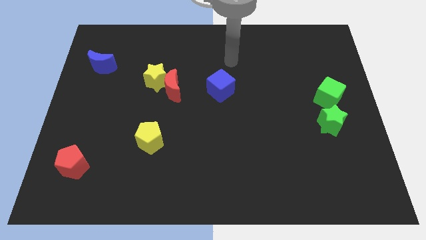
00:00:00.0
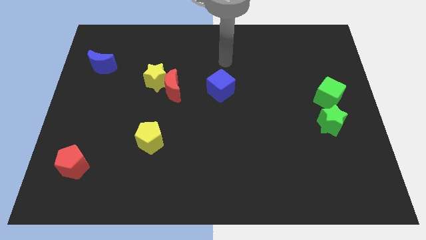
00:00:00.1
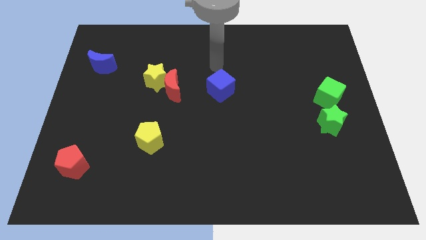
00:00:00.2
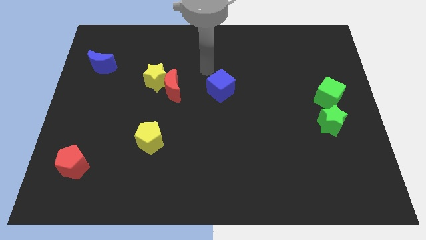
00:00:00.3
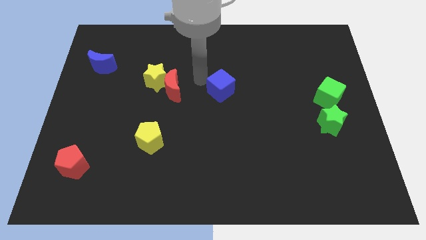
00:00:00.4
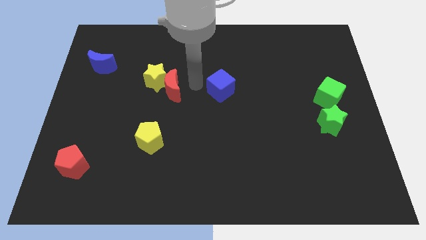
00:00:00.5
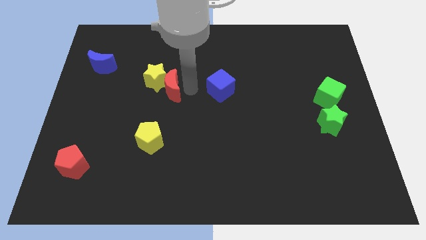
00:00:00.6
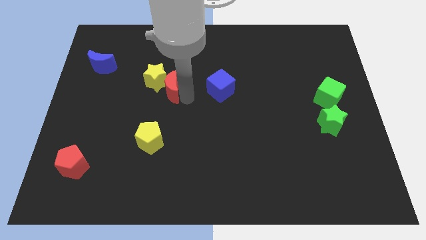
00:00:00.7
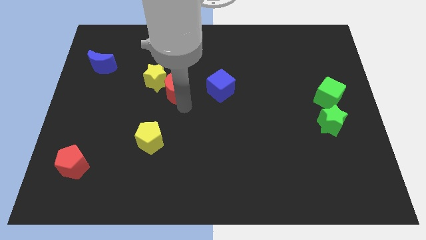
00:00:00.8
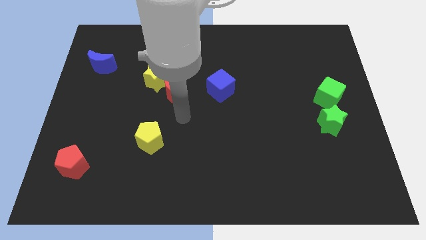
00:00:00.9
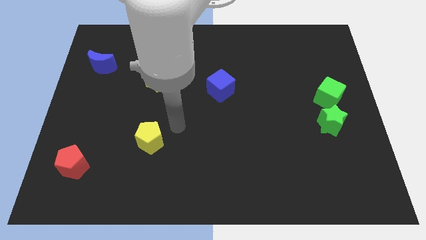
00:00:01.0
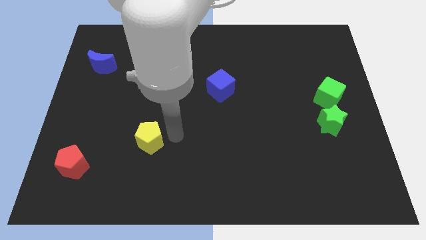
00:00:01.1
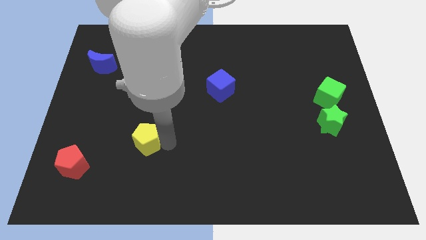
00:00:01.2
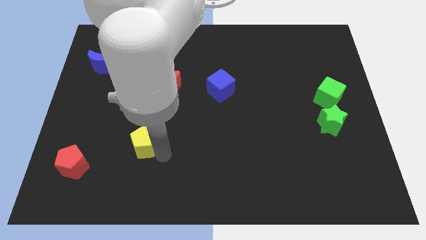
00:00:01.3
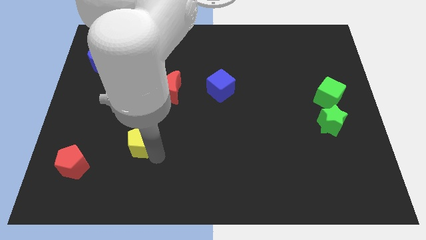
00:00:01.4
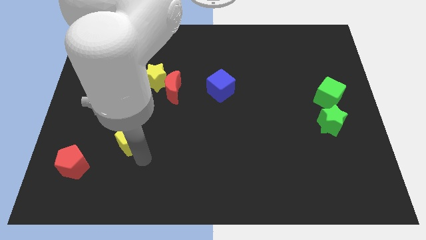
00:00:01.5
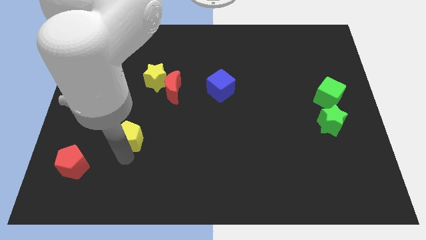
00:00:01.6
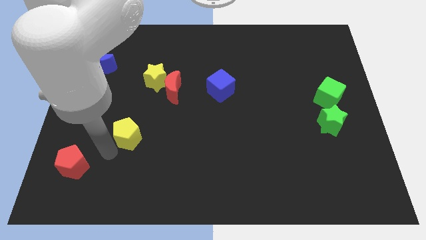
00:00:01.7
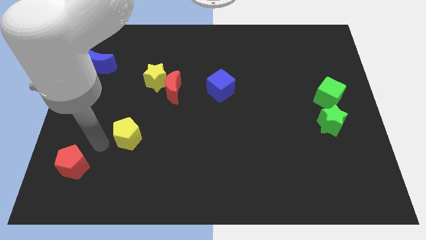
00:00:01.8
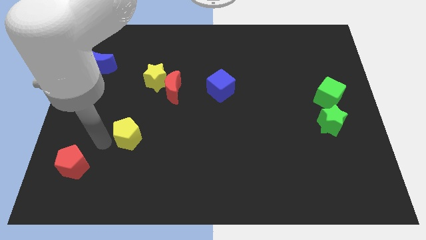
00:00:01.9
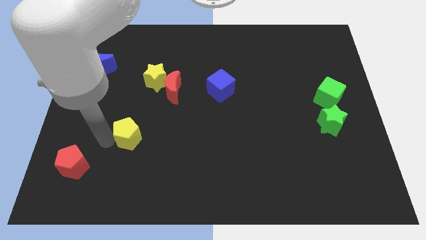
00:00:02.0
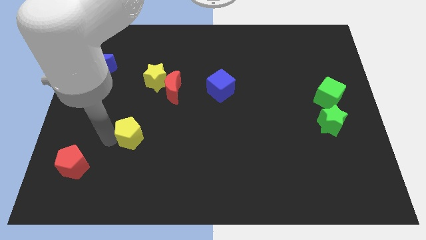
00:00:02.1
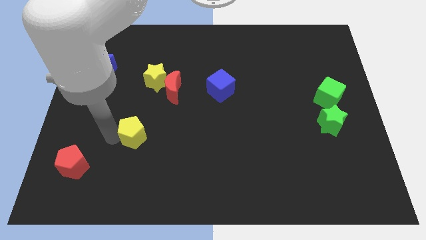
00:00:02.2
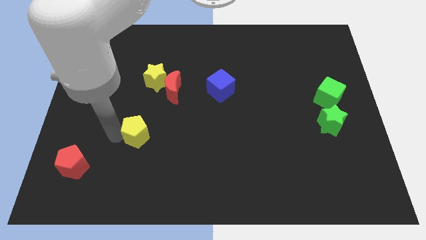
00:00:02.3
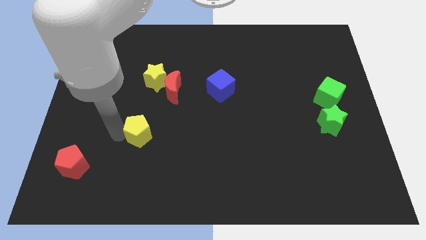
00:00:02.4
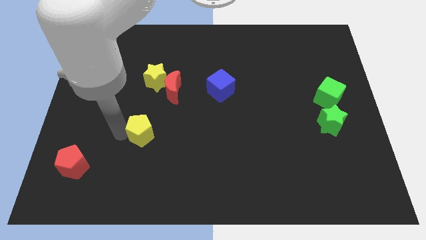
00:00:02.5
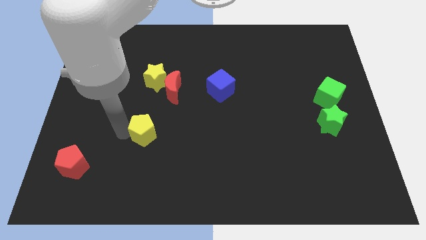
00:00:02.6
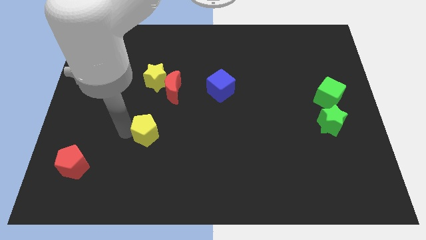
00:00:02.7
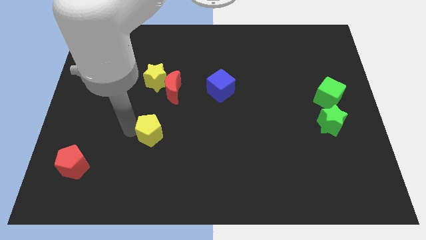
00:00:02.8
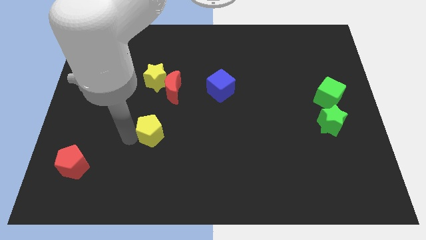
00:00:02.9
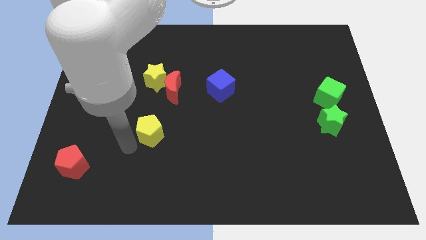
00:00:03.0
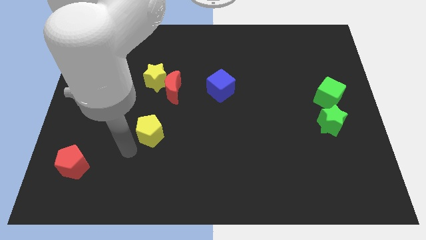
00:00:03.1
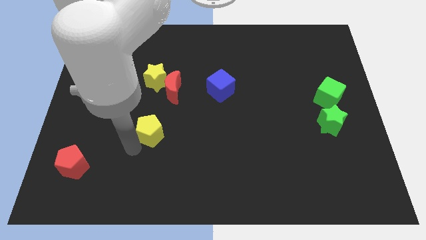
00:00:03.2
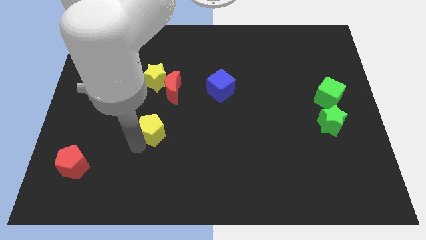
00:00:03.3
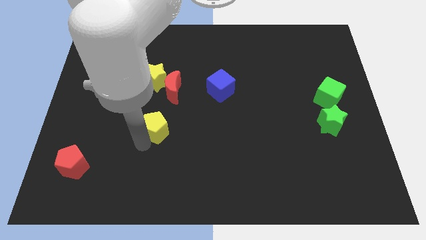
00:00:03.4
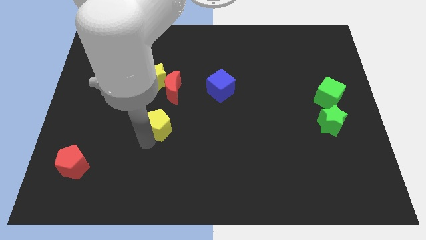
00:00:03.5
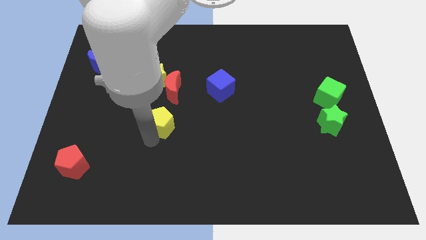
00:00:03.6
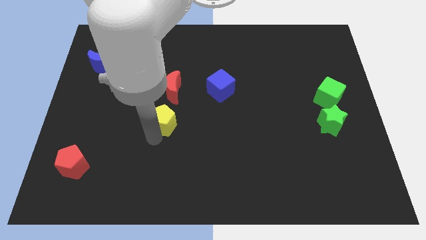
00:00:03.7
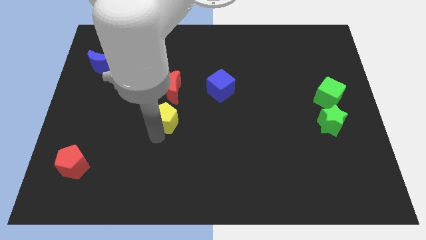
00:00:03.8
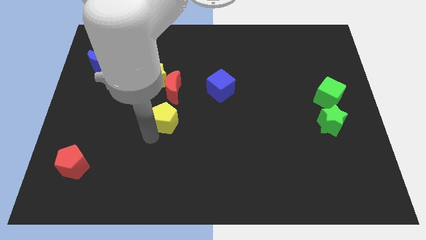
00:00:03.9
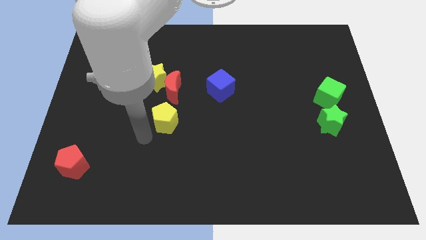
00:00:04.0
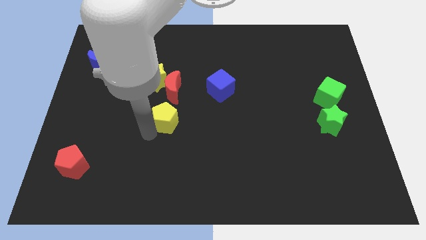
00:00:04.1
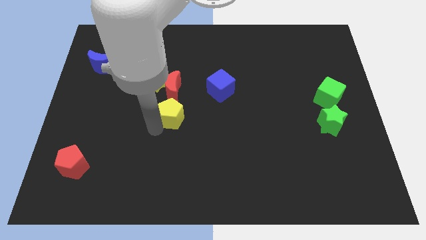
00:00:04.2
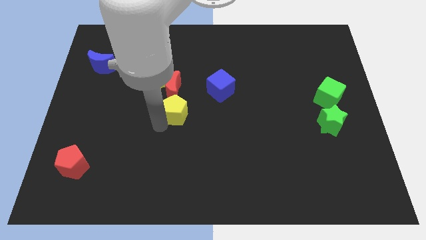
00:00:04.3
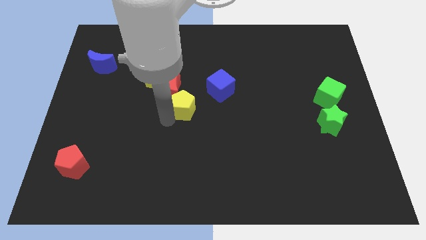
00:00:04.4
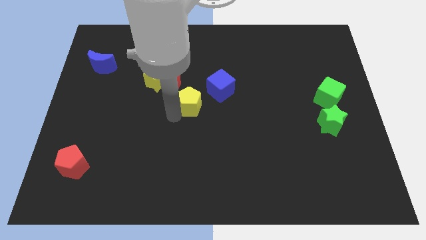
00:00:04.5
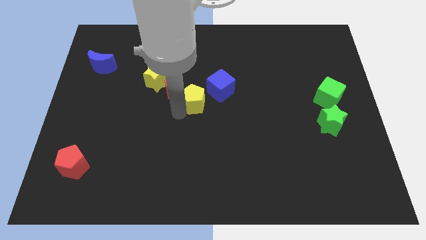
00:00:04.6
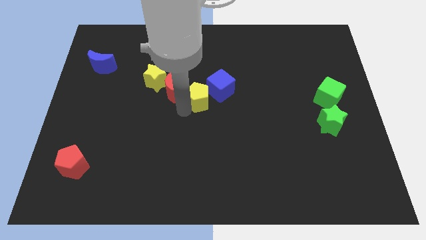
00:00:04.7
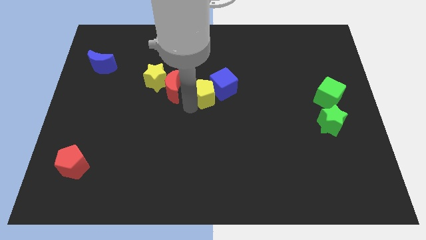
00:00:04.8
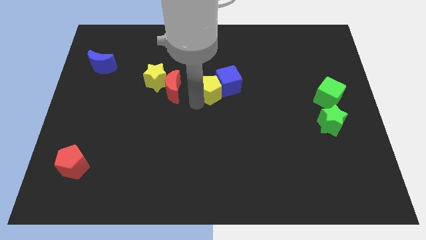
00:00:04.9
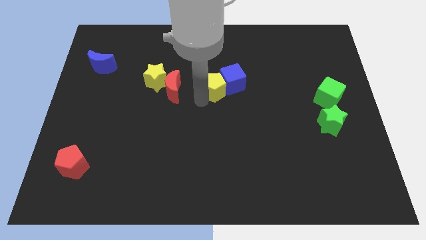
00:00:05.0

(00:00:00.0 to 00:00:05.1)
slide the yellow pentagon upwards and right

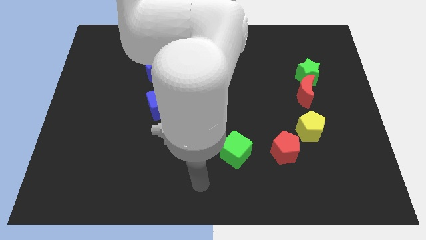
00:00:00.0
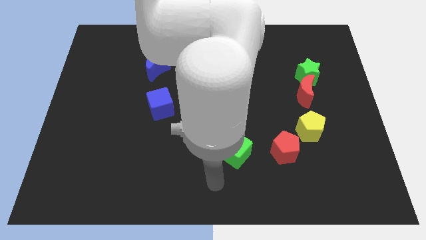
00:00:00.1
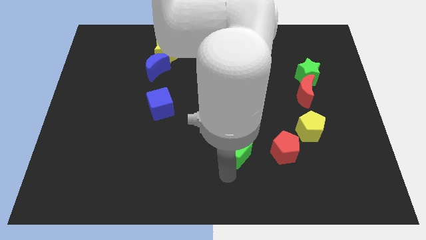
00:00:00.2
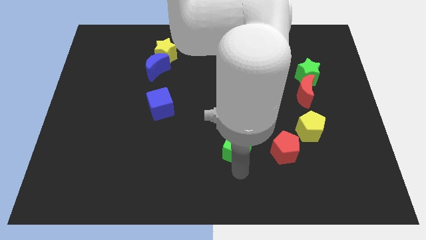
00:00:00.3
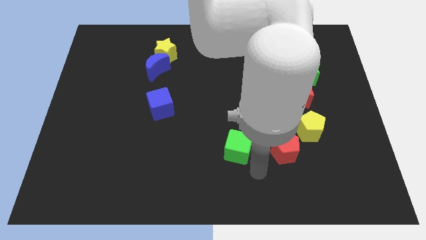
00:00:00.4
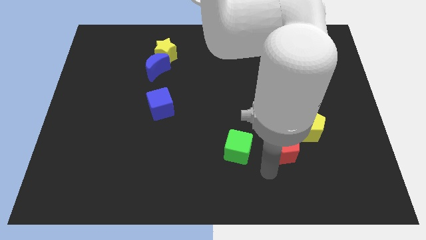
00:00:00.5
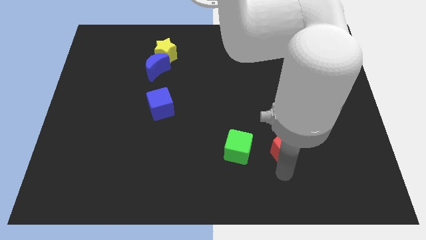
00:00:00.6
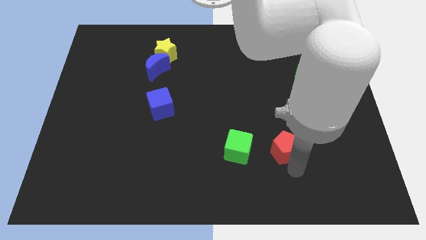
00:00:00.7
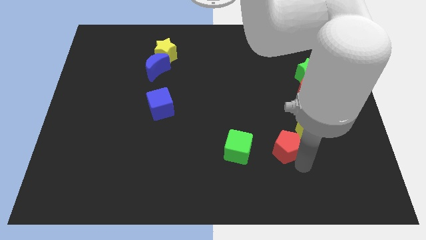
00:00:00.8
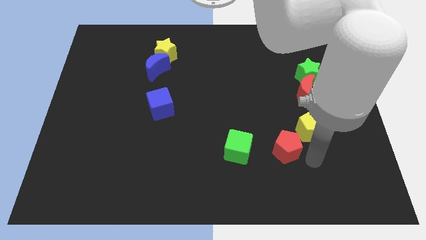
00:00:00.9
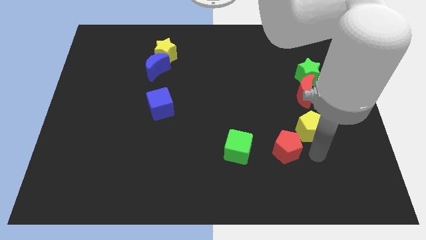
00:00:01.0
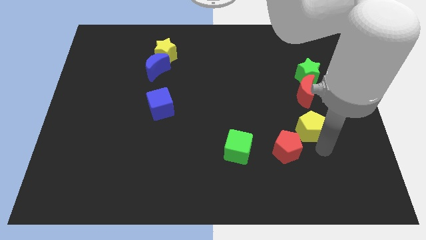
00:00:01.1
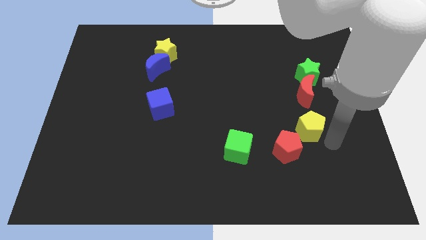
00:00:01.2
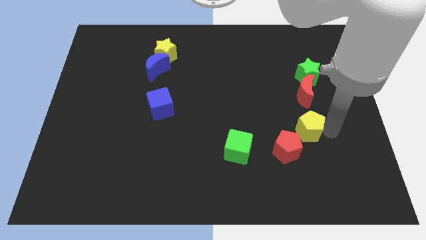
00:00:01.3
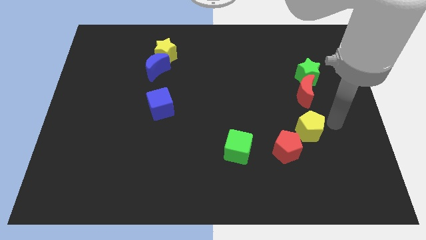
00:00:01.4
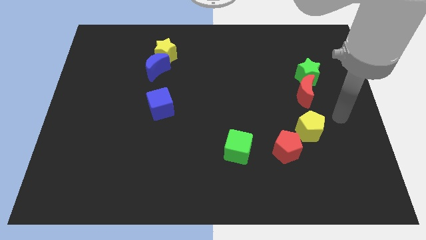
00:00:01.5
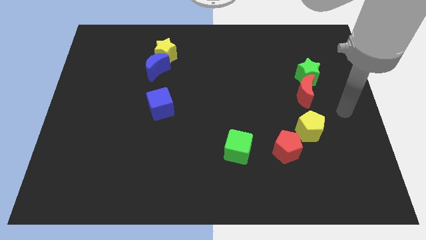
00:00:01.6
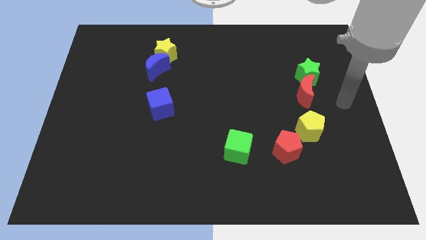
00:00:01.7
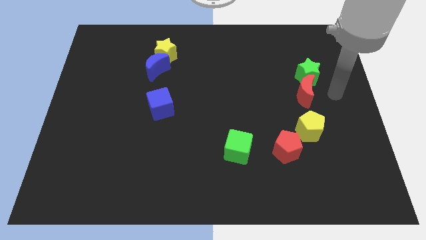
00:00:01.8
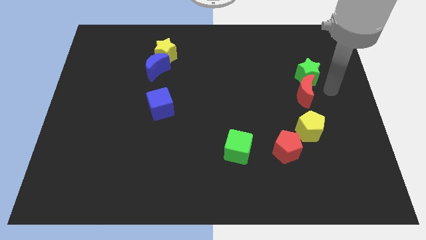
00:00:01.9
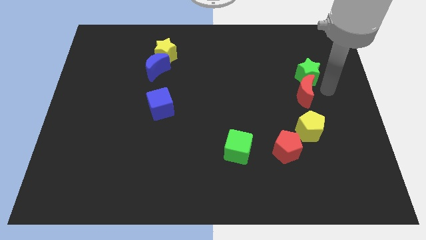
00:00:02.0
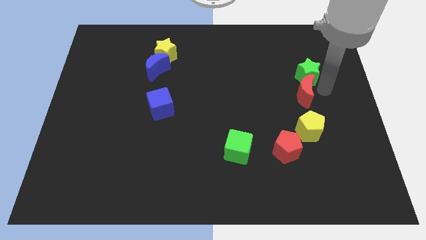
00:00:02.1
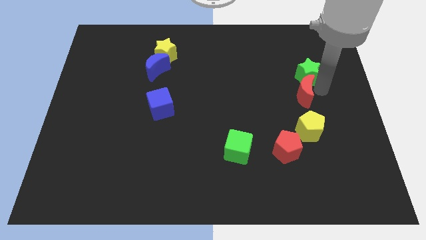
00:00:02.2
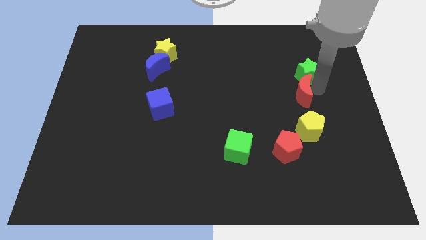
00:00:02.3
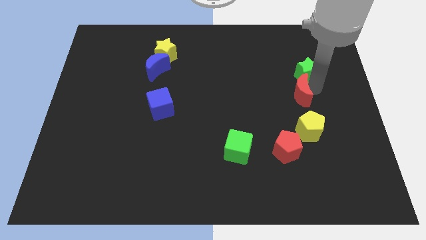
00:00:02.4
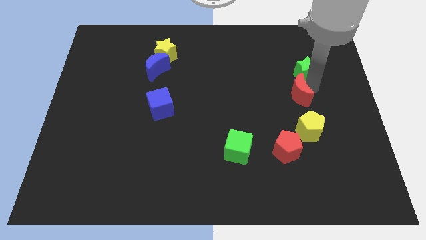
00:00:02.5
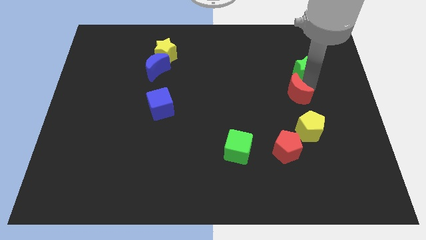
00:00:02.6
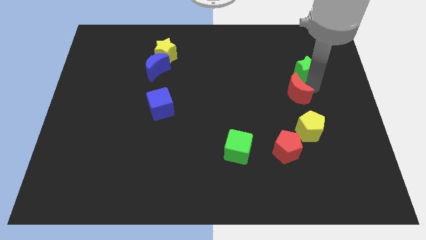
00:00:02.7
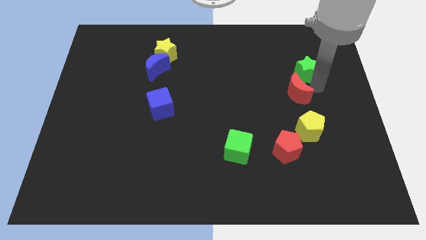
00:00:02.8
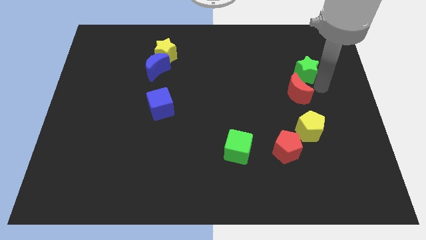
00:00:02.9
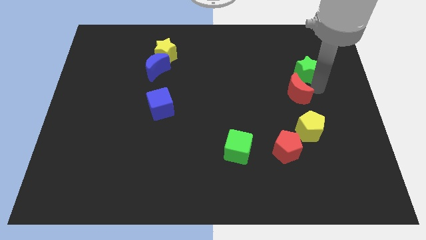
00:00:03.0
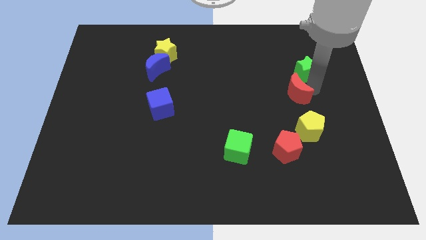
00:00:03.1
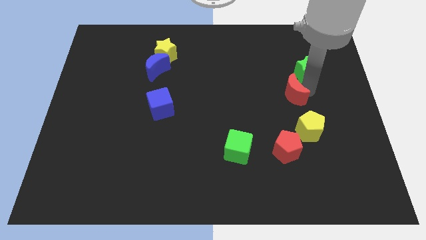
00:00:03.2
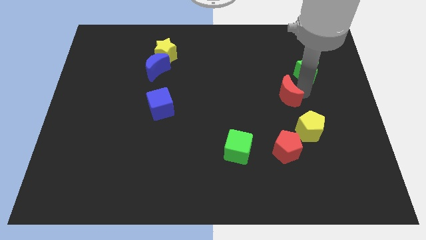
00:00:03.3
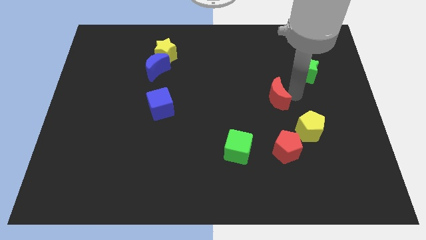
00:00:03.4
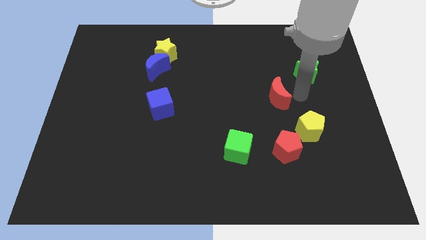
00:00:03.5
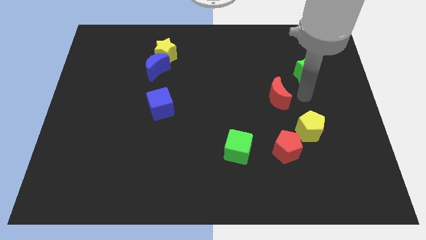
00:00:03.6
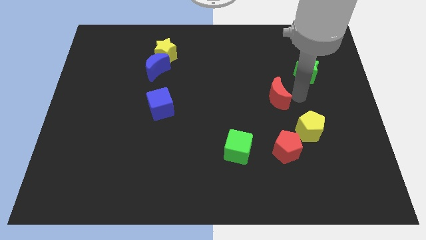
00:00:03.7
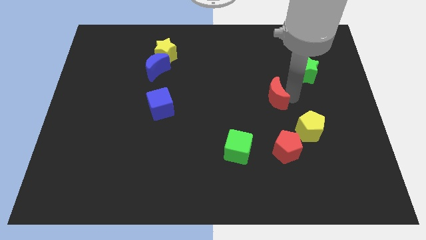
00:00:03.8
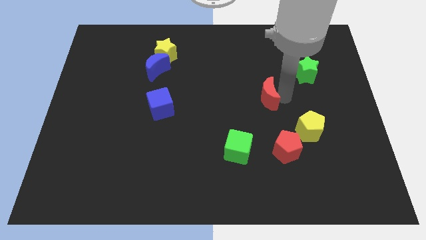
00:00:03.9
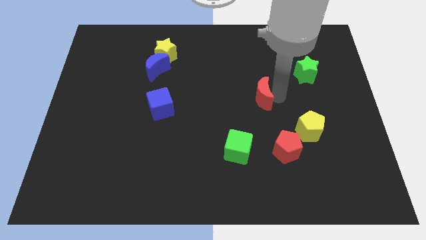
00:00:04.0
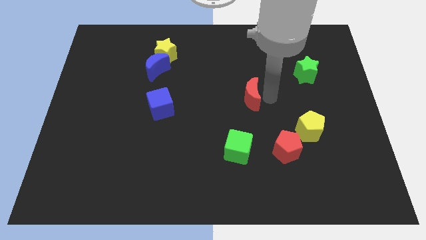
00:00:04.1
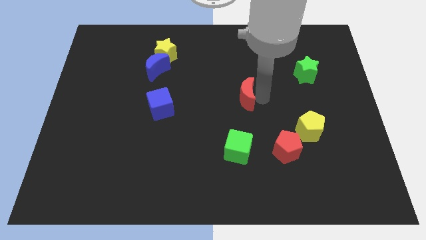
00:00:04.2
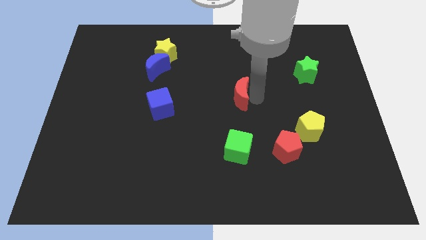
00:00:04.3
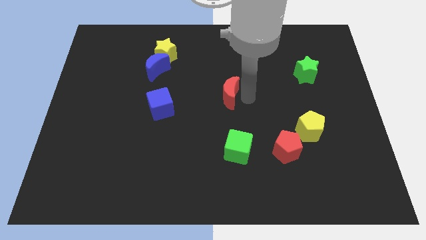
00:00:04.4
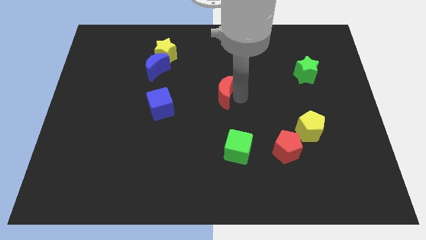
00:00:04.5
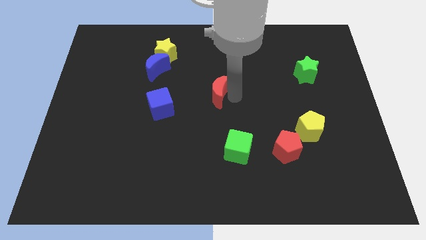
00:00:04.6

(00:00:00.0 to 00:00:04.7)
move the red moon to the left
